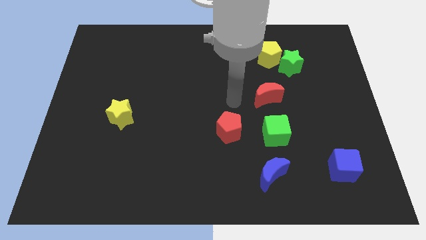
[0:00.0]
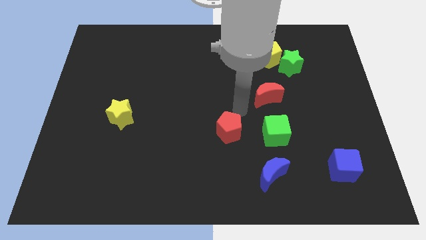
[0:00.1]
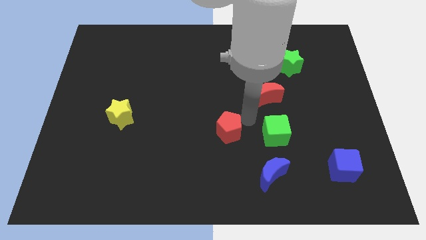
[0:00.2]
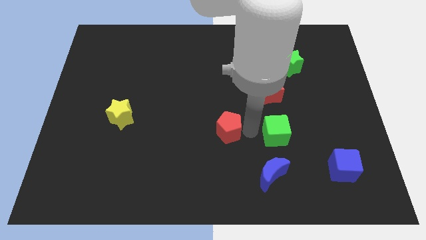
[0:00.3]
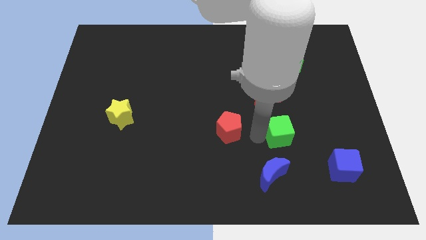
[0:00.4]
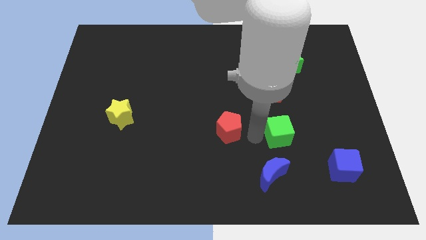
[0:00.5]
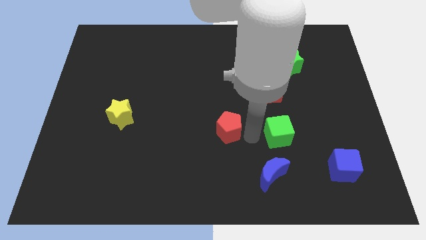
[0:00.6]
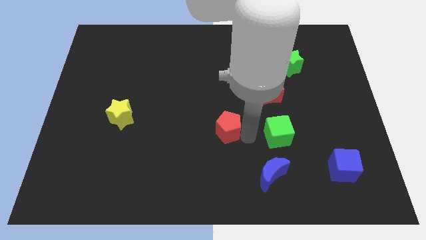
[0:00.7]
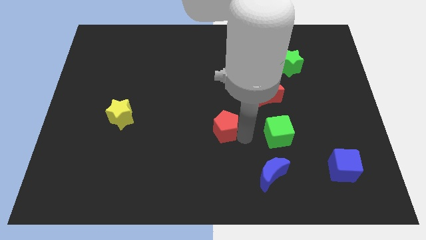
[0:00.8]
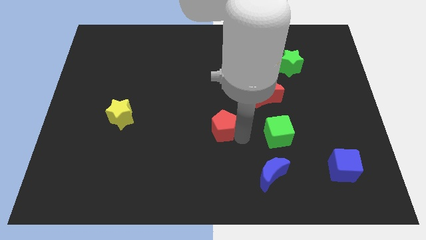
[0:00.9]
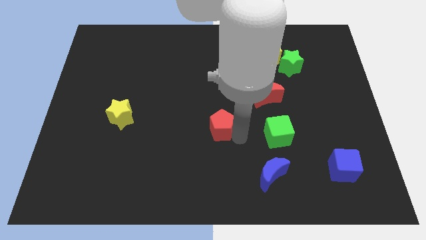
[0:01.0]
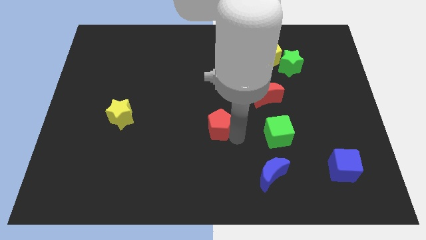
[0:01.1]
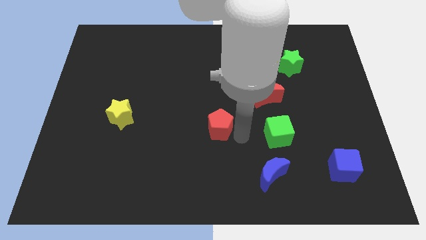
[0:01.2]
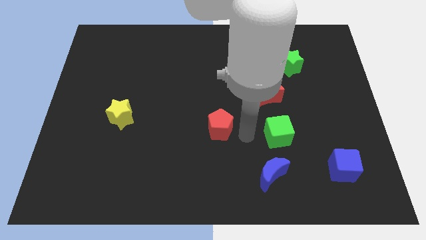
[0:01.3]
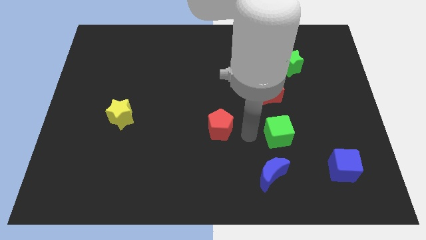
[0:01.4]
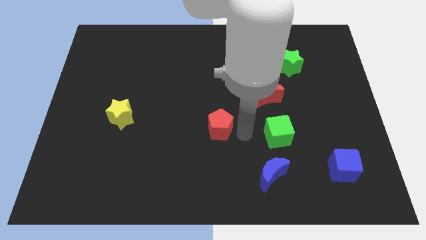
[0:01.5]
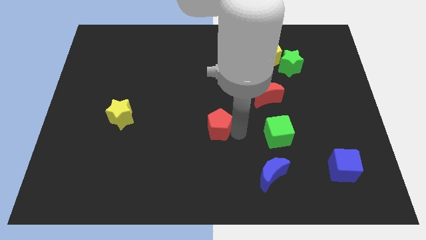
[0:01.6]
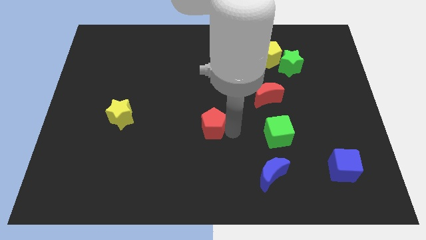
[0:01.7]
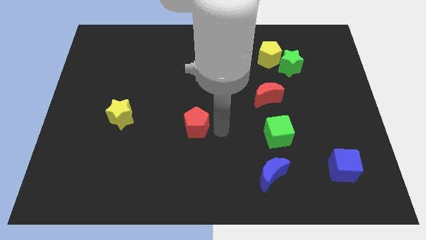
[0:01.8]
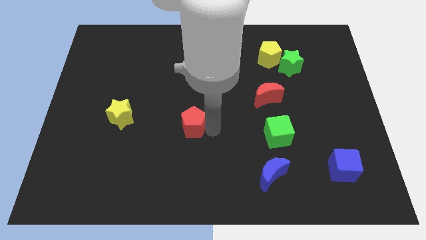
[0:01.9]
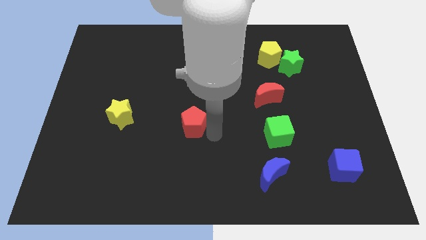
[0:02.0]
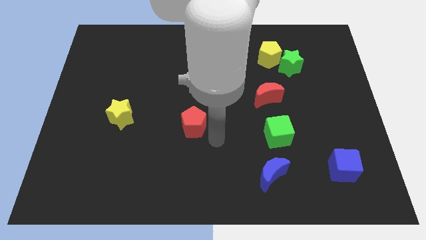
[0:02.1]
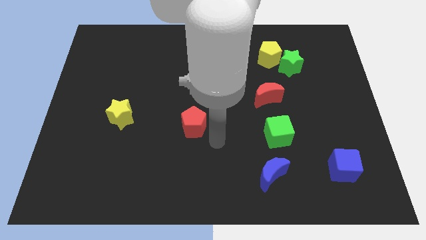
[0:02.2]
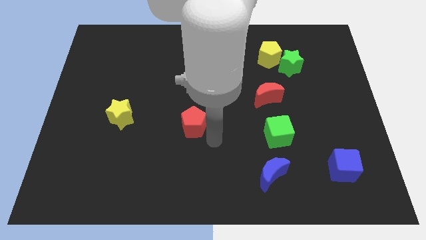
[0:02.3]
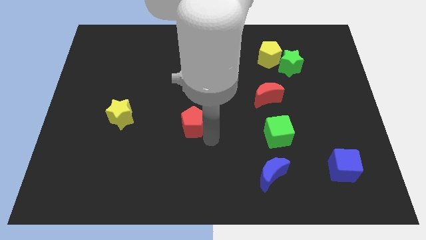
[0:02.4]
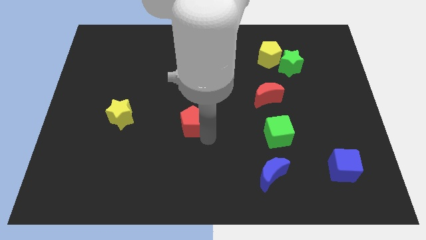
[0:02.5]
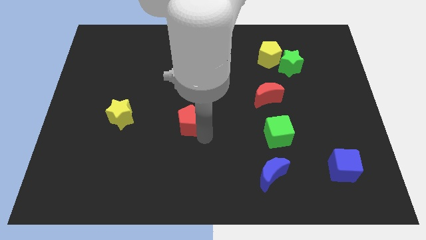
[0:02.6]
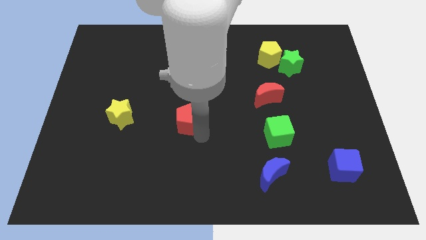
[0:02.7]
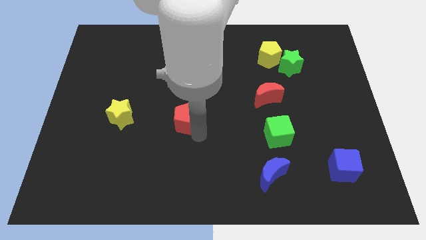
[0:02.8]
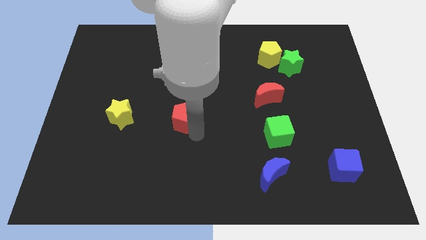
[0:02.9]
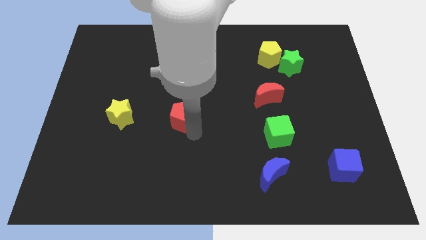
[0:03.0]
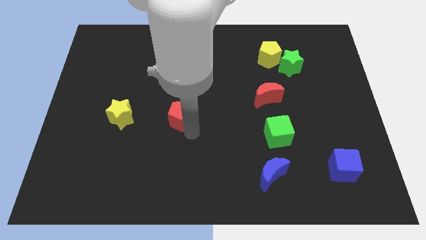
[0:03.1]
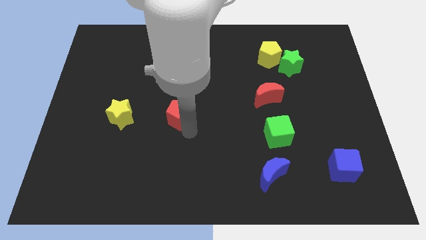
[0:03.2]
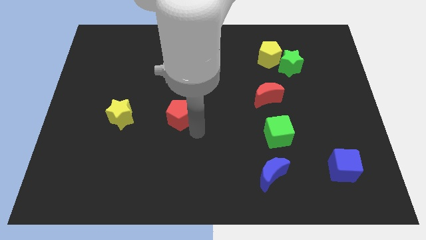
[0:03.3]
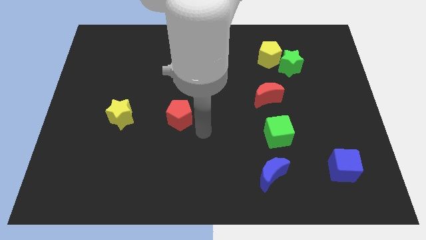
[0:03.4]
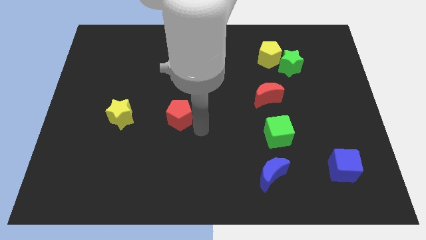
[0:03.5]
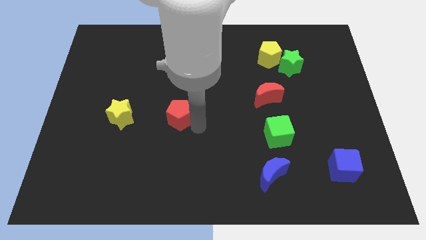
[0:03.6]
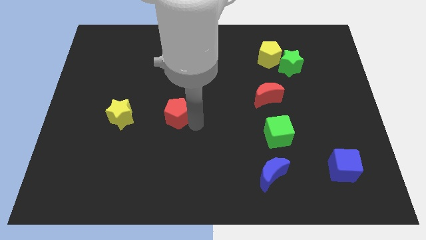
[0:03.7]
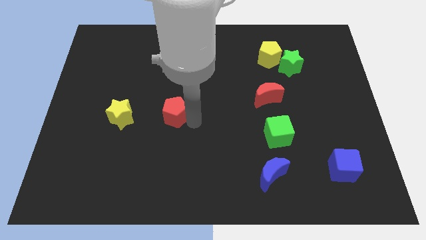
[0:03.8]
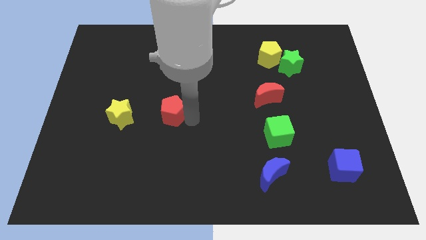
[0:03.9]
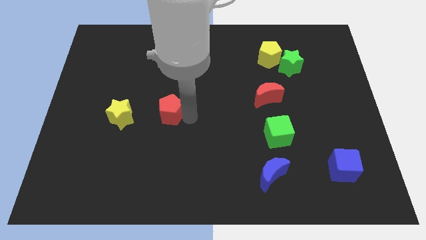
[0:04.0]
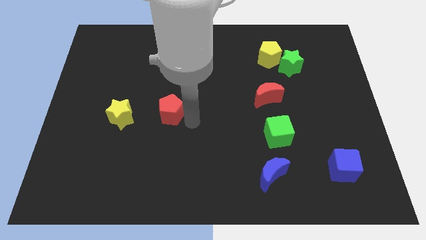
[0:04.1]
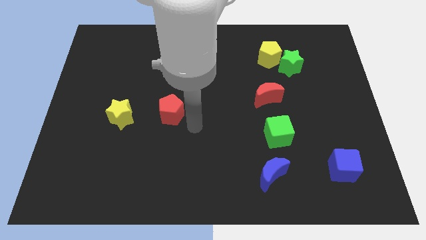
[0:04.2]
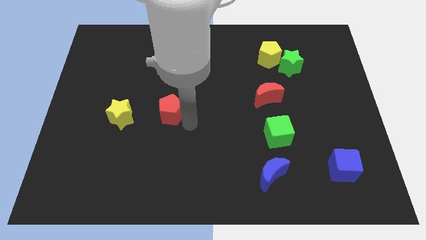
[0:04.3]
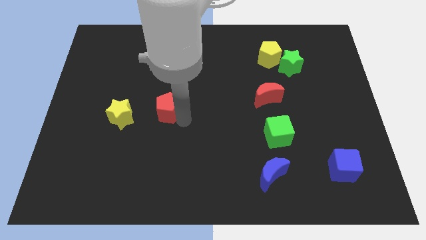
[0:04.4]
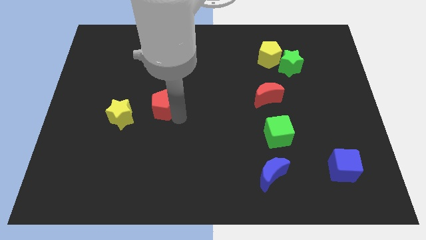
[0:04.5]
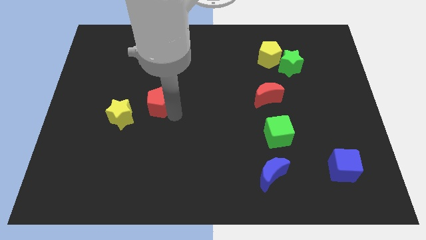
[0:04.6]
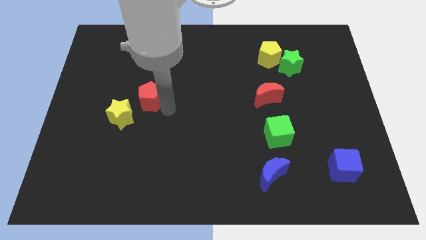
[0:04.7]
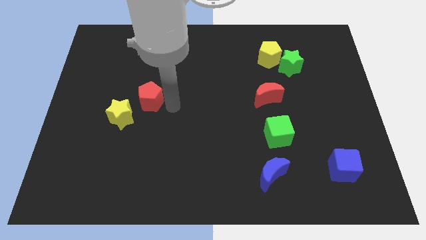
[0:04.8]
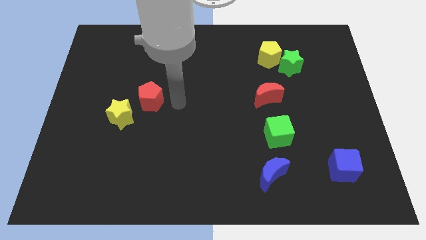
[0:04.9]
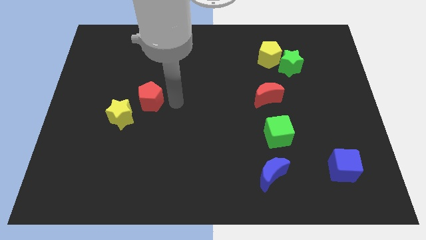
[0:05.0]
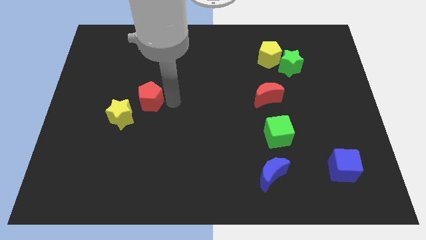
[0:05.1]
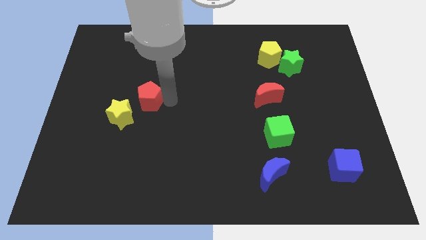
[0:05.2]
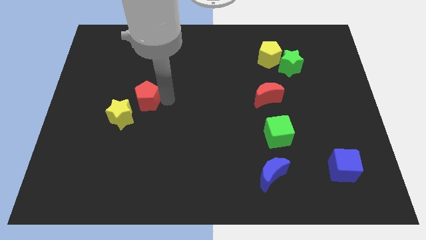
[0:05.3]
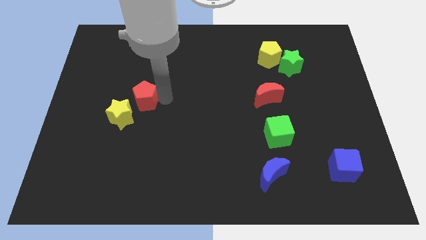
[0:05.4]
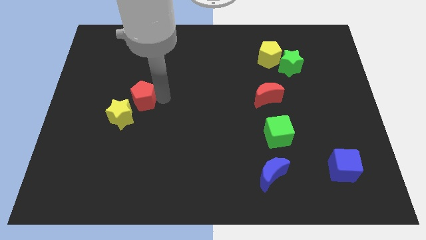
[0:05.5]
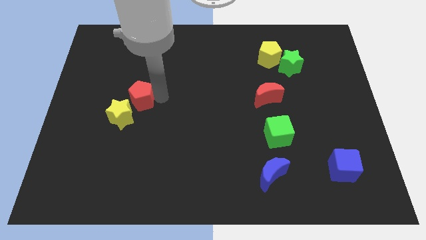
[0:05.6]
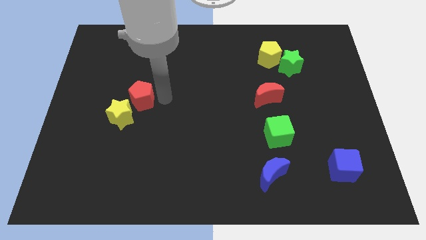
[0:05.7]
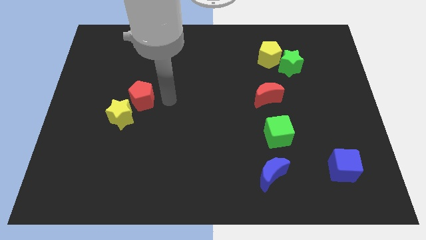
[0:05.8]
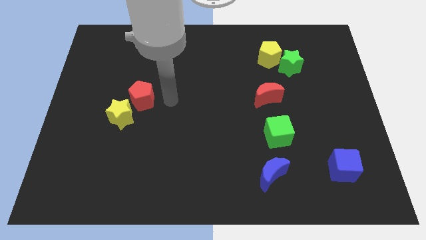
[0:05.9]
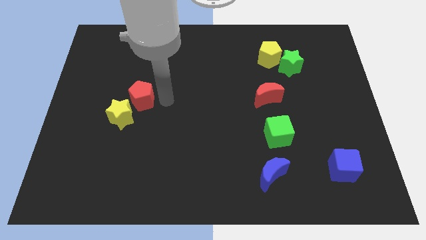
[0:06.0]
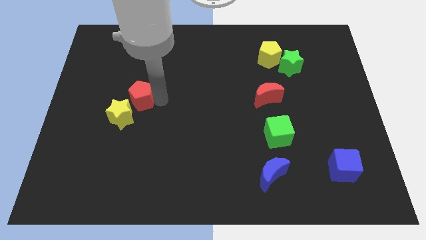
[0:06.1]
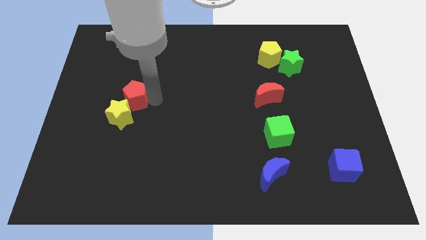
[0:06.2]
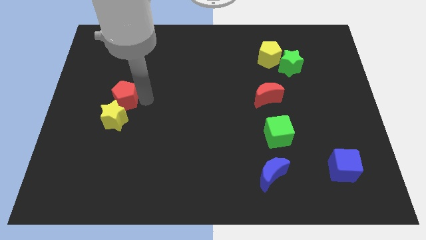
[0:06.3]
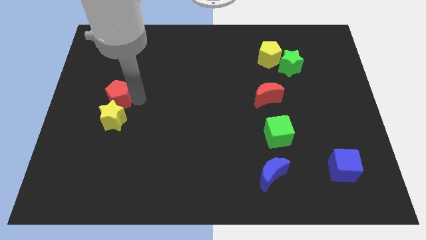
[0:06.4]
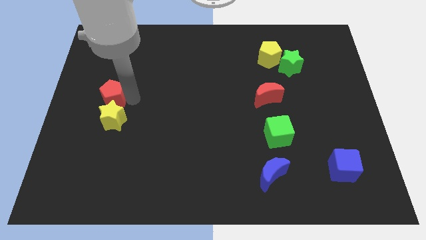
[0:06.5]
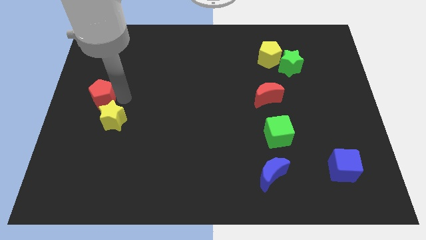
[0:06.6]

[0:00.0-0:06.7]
push the red pentagon to the left side of the board
